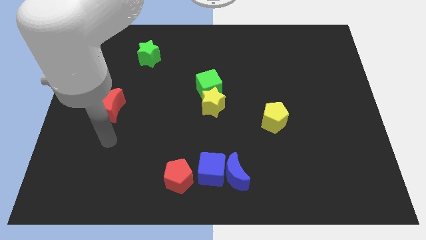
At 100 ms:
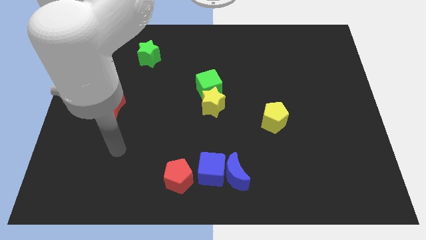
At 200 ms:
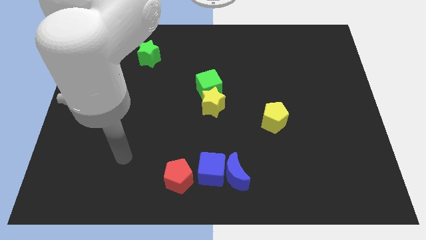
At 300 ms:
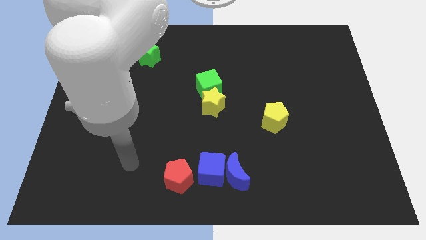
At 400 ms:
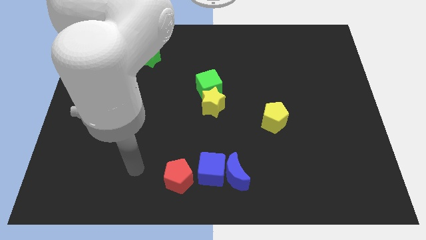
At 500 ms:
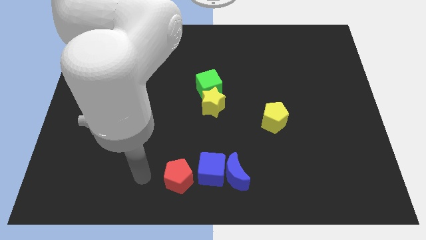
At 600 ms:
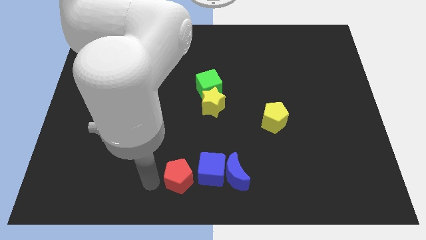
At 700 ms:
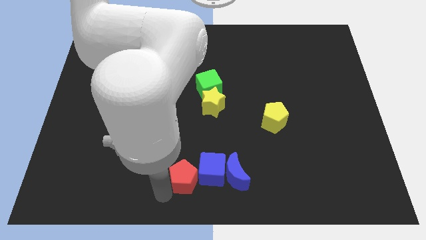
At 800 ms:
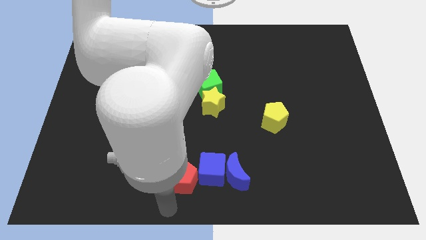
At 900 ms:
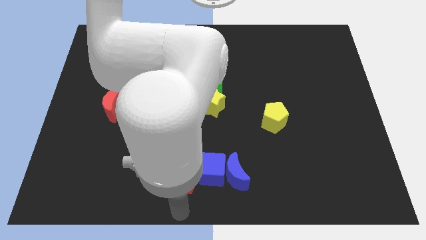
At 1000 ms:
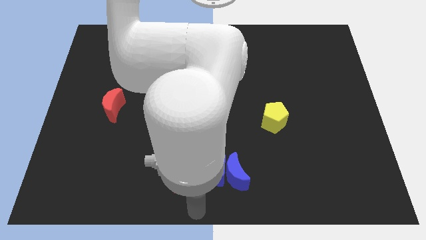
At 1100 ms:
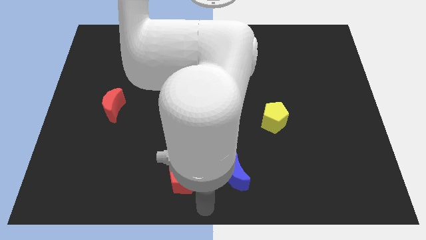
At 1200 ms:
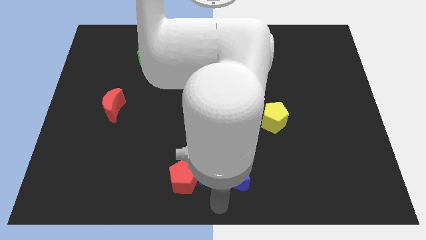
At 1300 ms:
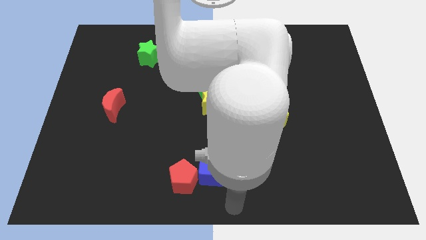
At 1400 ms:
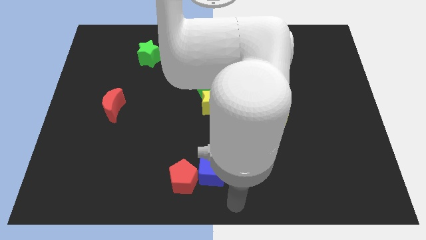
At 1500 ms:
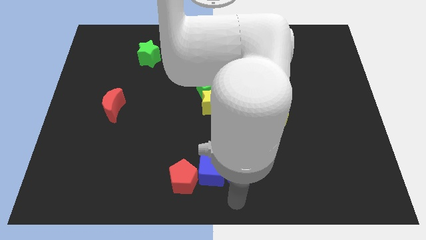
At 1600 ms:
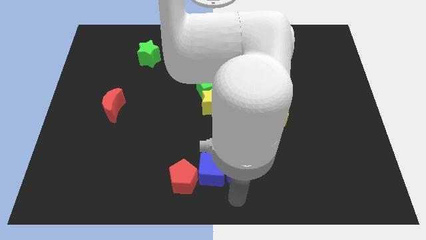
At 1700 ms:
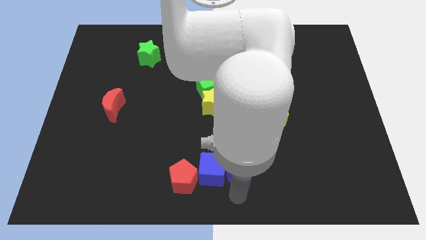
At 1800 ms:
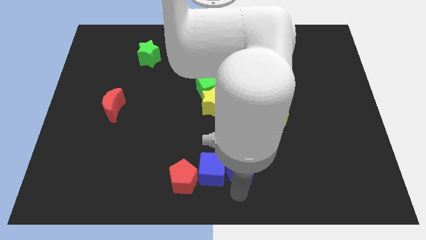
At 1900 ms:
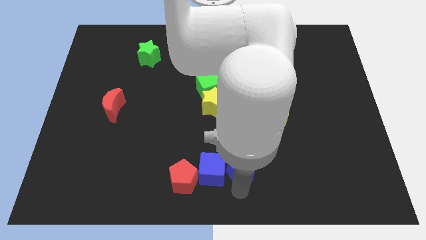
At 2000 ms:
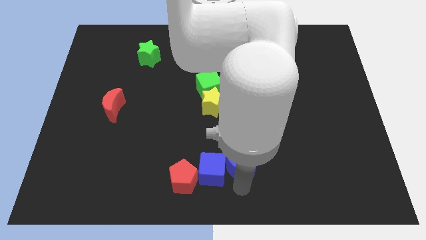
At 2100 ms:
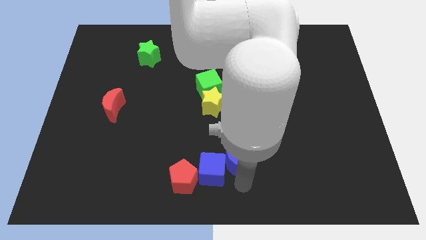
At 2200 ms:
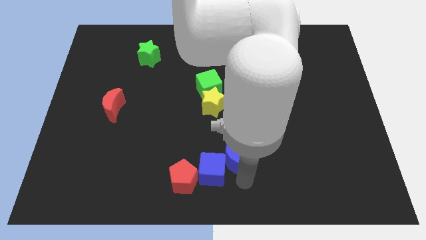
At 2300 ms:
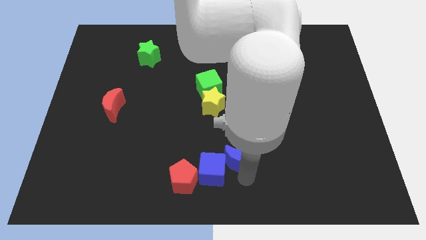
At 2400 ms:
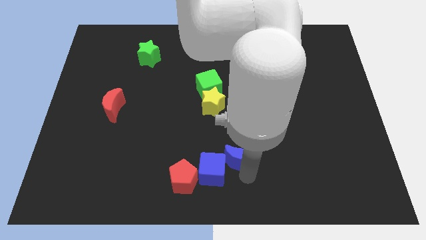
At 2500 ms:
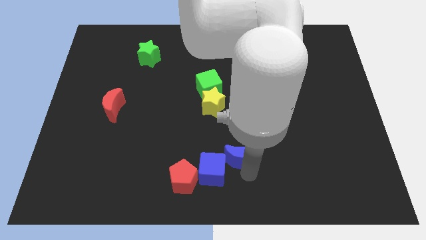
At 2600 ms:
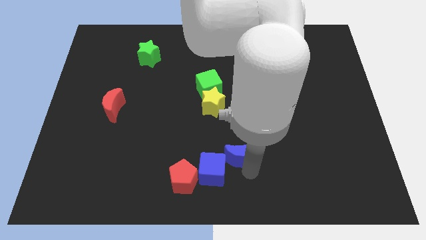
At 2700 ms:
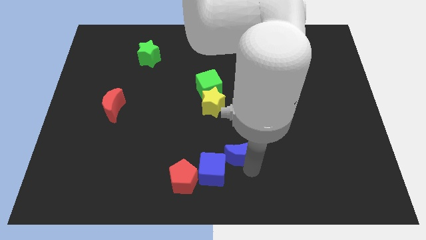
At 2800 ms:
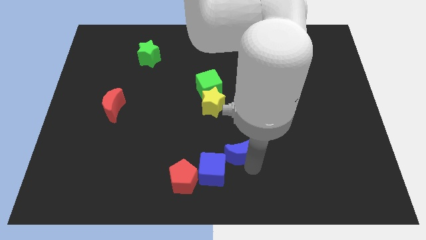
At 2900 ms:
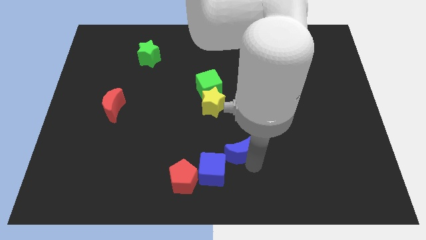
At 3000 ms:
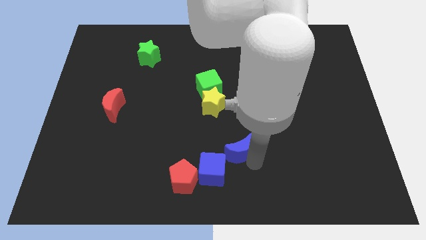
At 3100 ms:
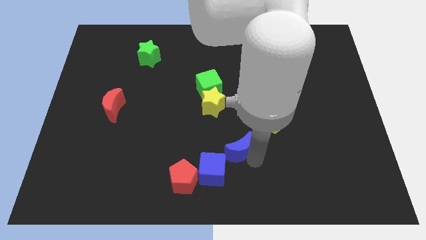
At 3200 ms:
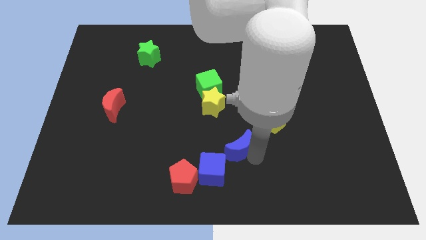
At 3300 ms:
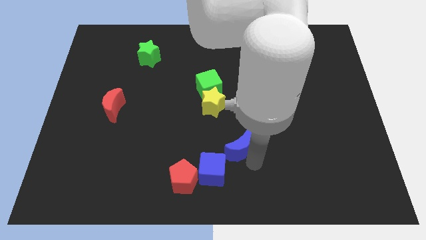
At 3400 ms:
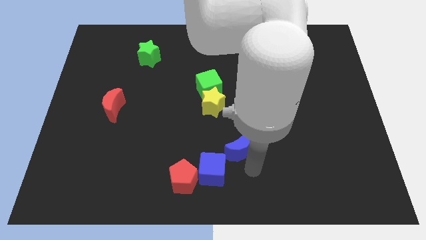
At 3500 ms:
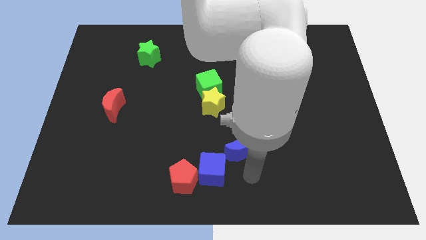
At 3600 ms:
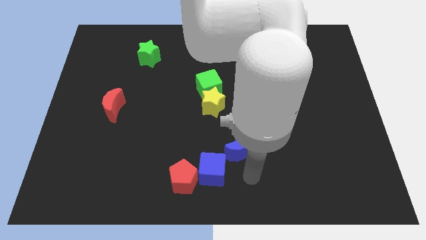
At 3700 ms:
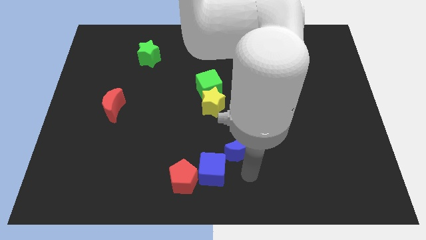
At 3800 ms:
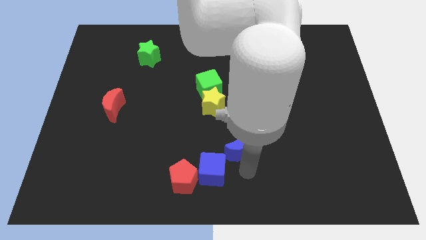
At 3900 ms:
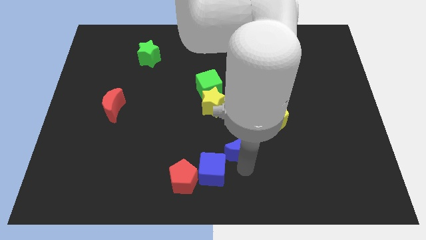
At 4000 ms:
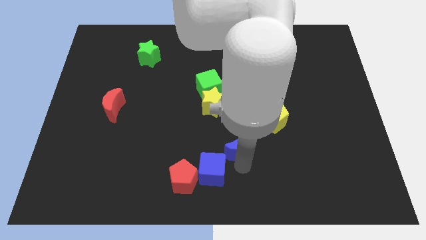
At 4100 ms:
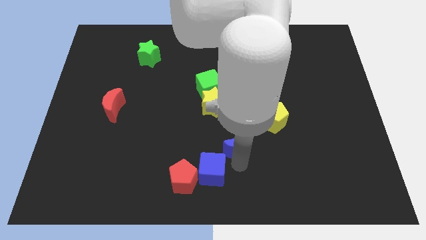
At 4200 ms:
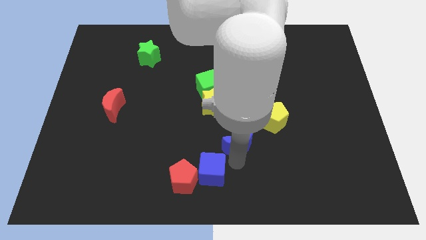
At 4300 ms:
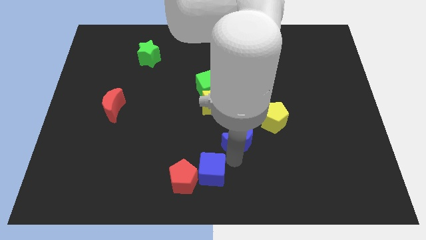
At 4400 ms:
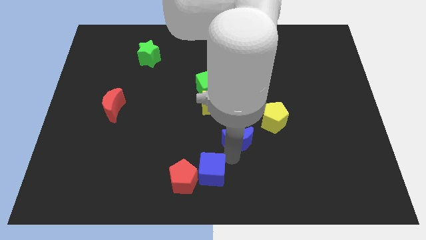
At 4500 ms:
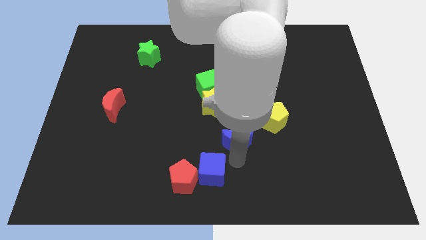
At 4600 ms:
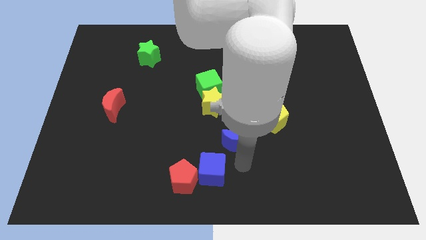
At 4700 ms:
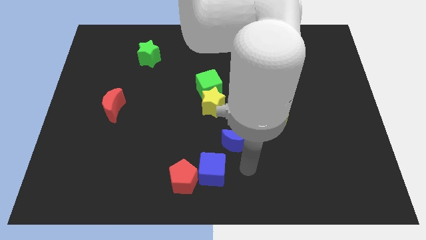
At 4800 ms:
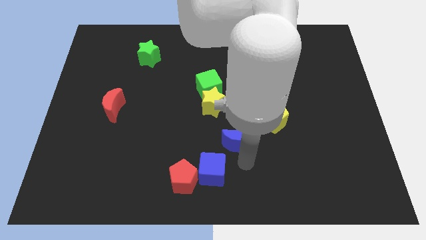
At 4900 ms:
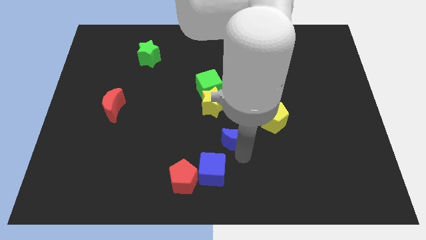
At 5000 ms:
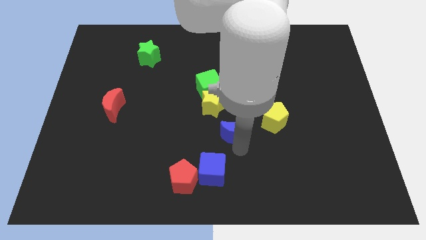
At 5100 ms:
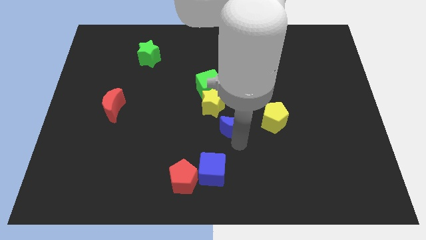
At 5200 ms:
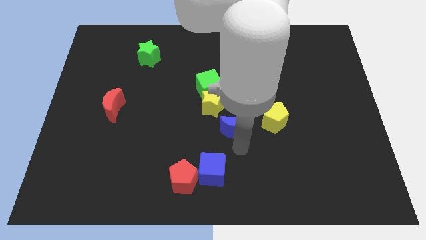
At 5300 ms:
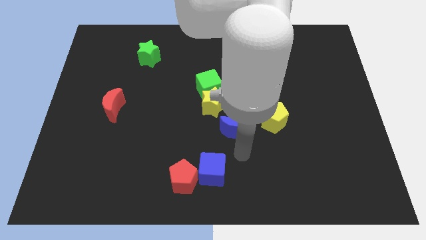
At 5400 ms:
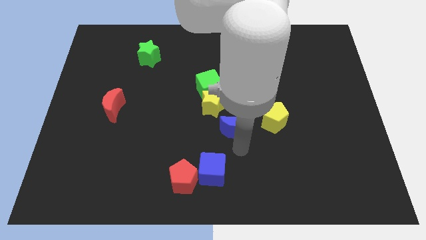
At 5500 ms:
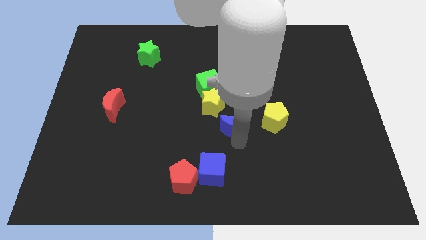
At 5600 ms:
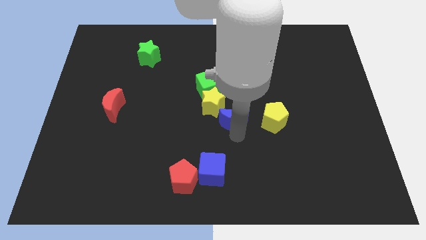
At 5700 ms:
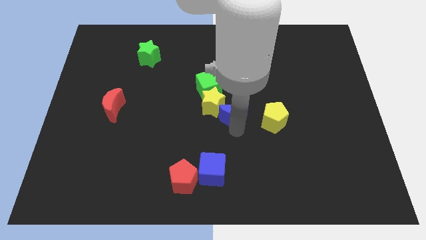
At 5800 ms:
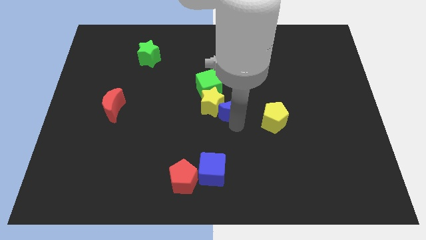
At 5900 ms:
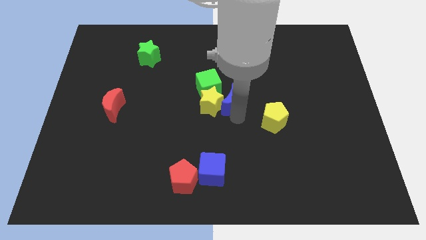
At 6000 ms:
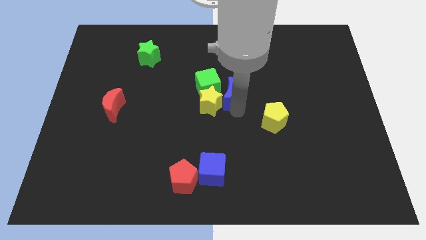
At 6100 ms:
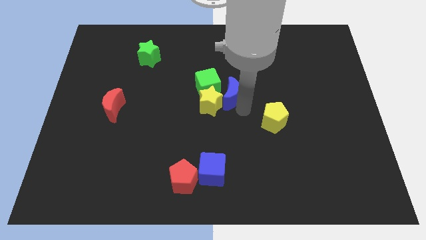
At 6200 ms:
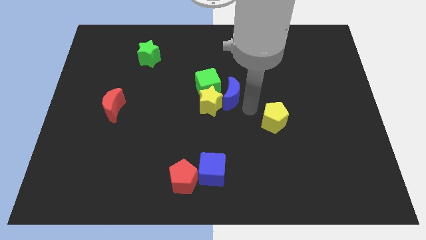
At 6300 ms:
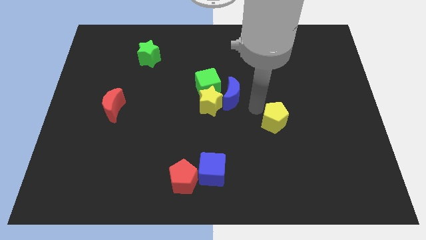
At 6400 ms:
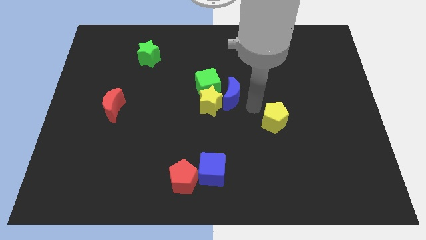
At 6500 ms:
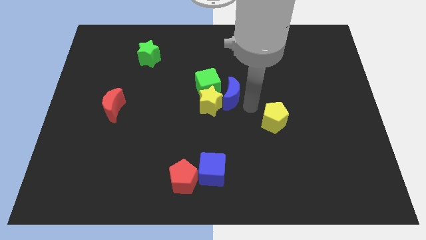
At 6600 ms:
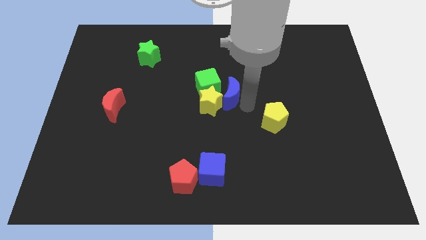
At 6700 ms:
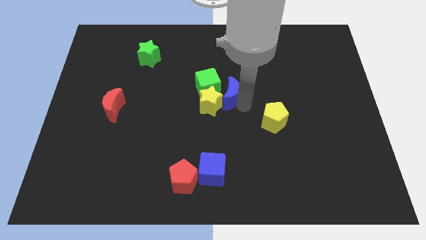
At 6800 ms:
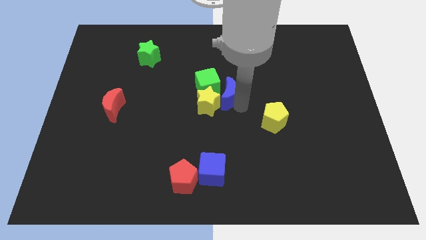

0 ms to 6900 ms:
put the blue moon next to the green cube
